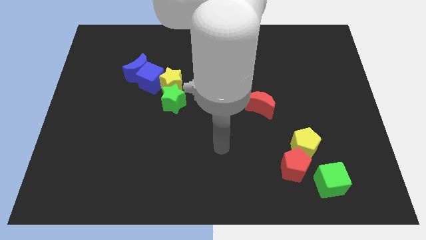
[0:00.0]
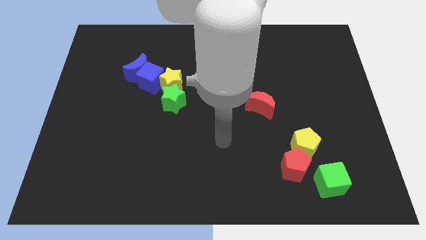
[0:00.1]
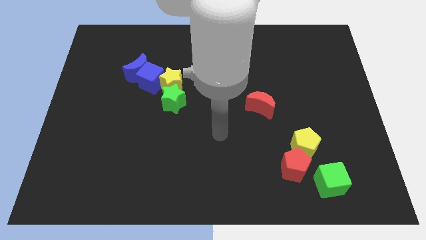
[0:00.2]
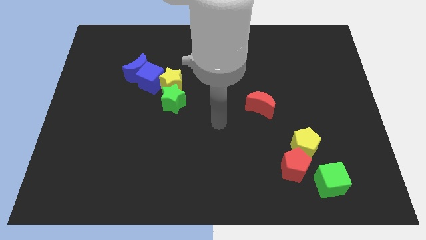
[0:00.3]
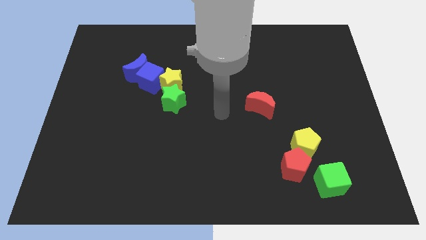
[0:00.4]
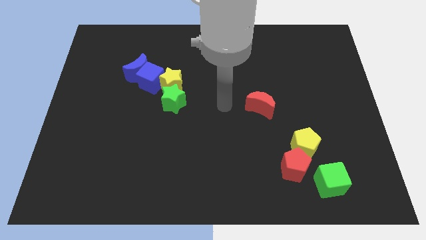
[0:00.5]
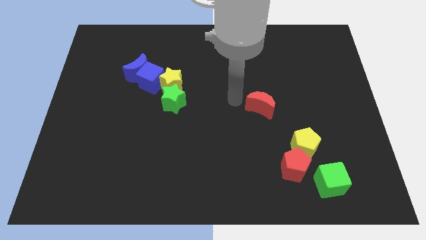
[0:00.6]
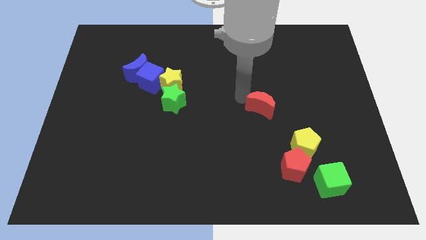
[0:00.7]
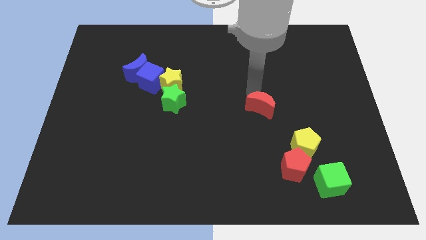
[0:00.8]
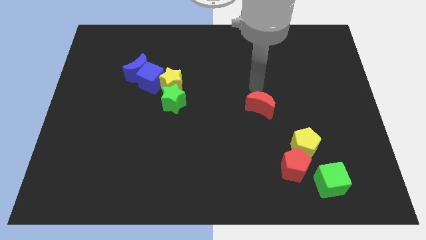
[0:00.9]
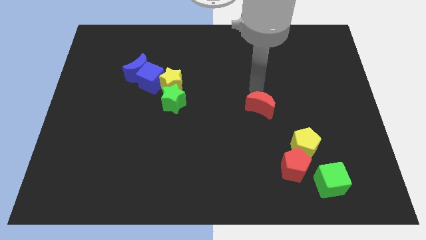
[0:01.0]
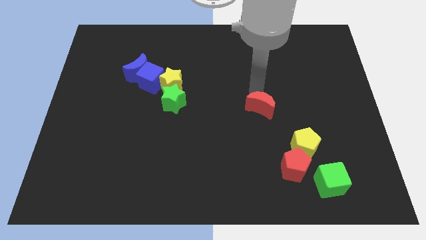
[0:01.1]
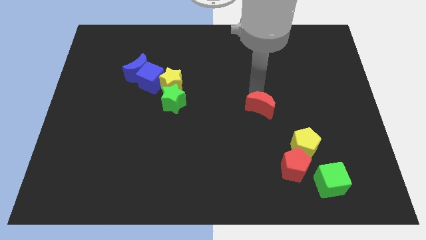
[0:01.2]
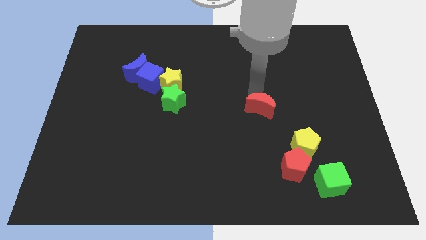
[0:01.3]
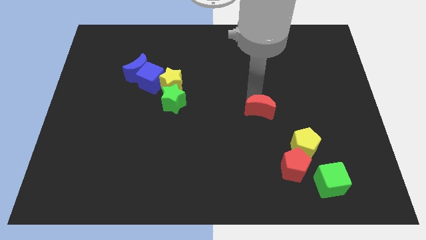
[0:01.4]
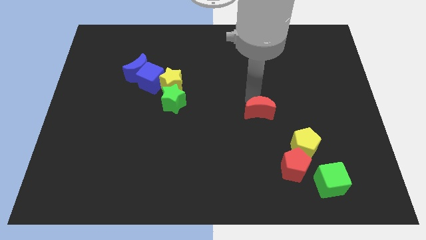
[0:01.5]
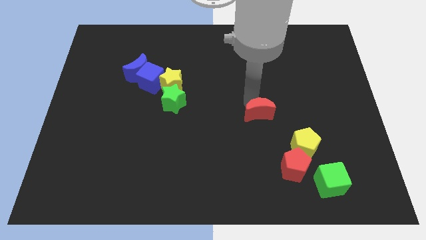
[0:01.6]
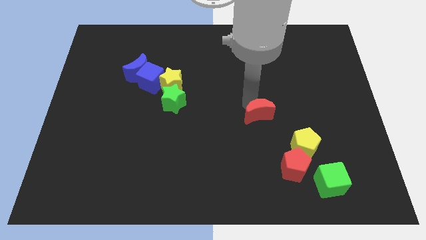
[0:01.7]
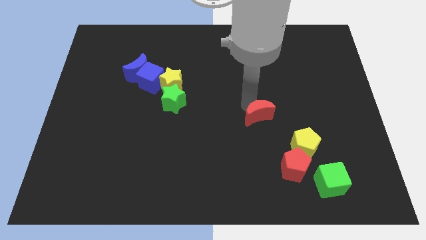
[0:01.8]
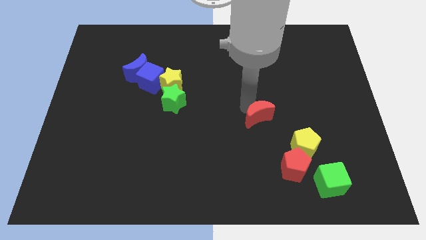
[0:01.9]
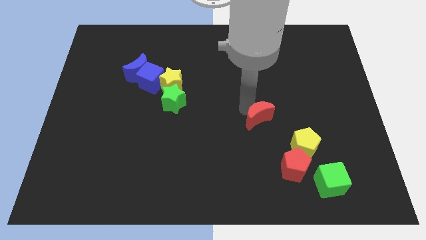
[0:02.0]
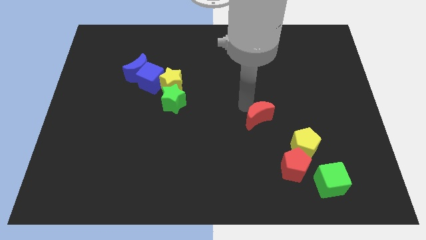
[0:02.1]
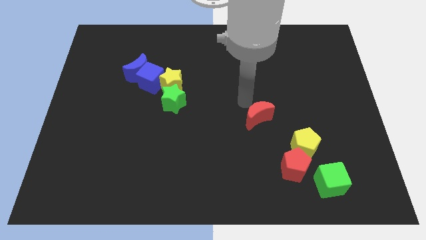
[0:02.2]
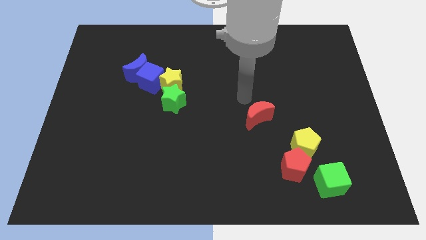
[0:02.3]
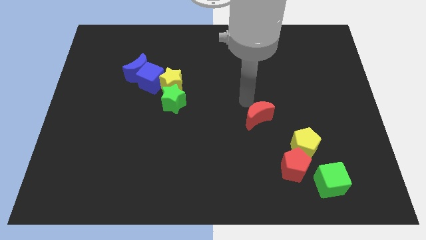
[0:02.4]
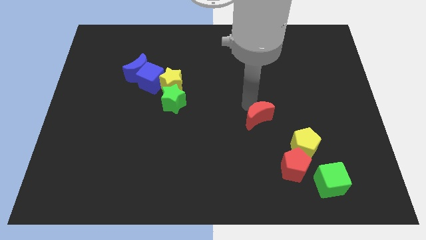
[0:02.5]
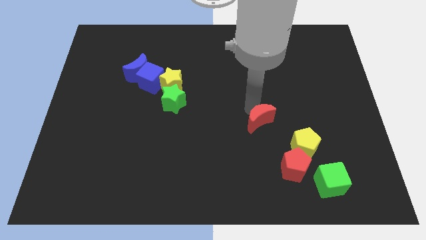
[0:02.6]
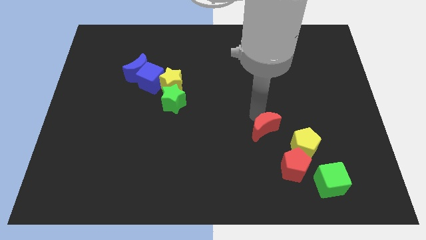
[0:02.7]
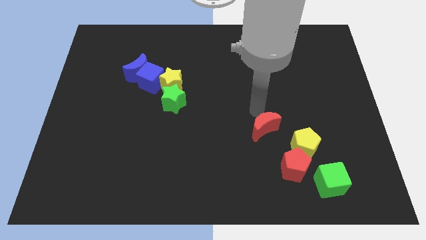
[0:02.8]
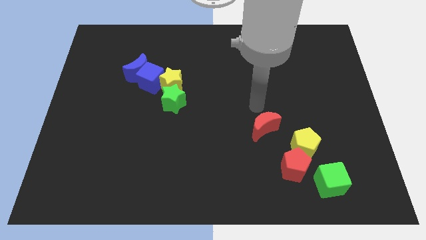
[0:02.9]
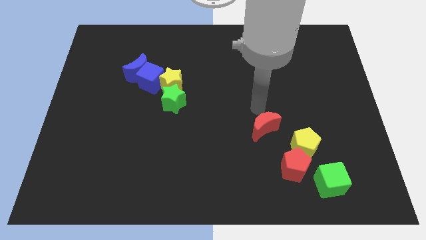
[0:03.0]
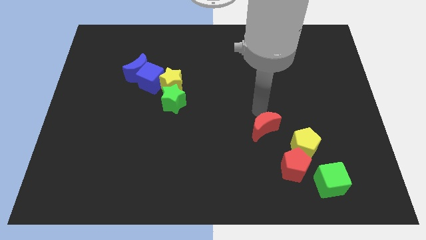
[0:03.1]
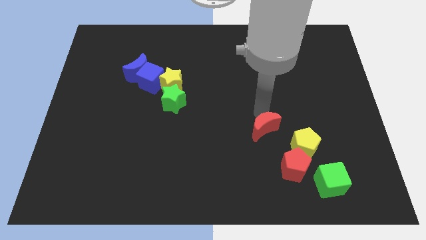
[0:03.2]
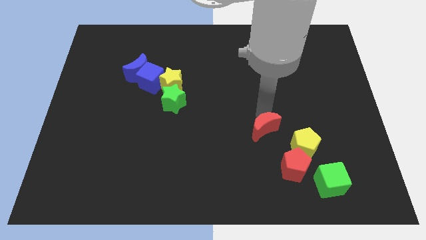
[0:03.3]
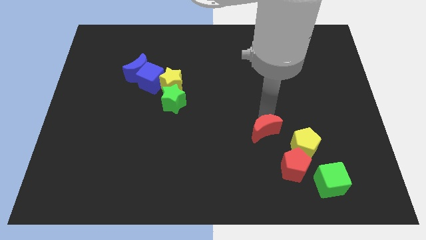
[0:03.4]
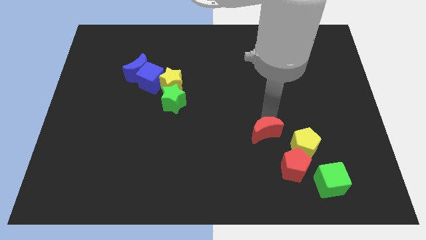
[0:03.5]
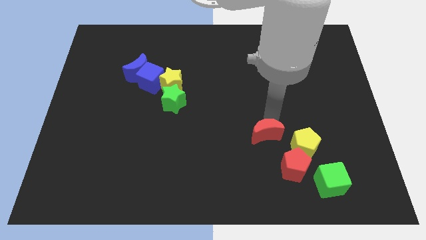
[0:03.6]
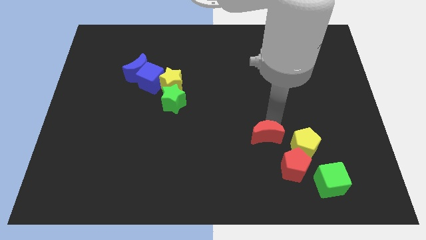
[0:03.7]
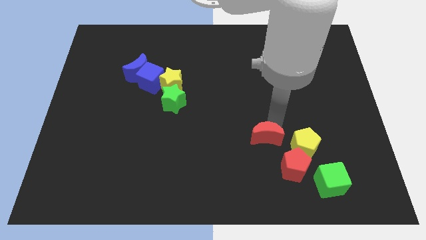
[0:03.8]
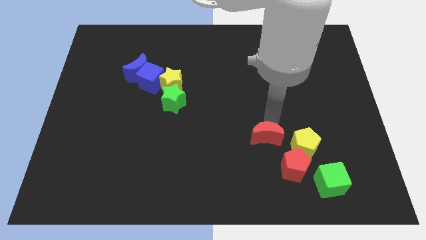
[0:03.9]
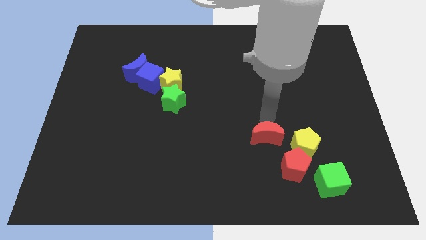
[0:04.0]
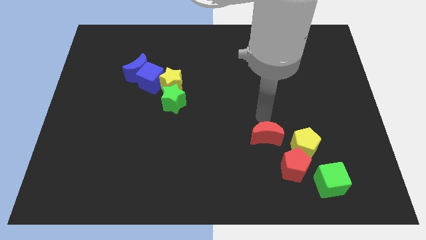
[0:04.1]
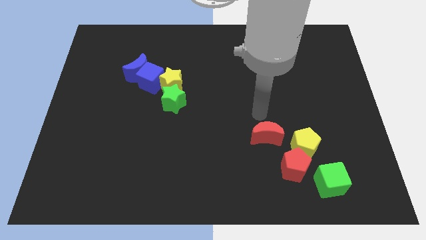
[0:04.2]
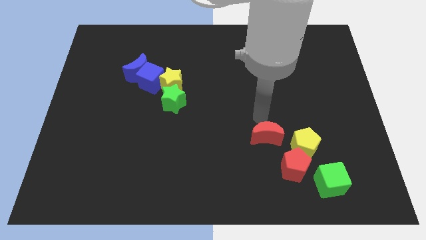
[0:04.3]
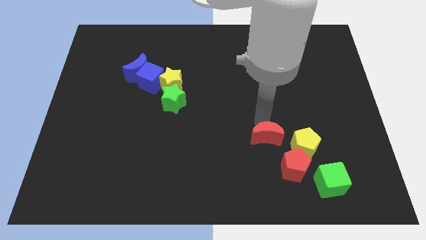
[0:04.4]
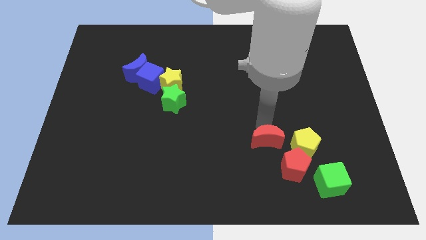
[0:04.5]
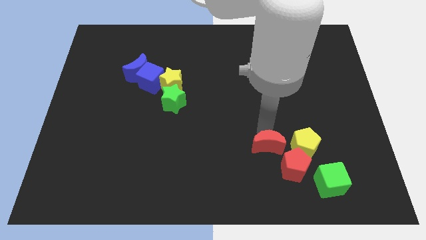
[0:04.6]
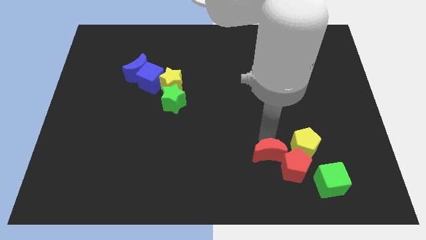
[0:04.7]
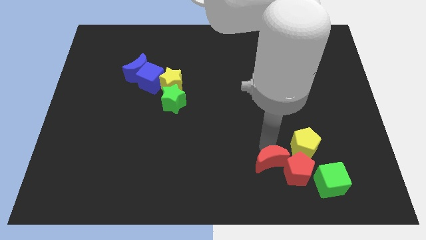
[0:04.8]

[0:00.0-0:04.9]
push the red moon left of the green cube

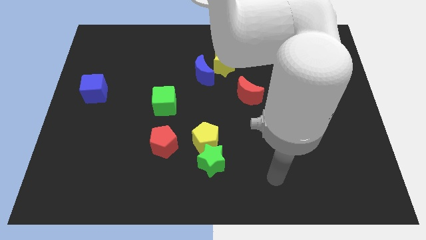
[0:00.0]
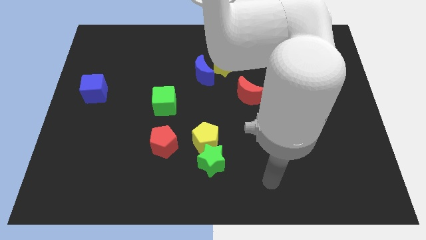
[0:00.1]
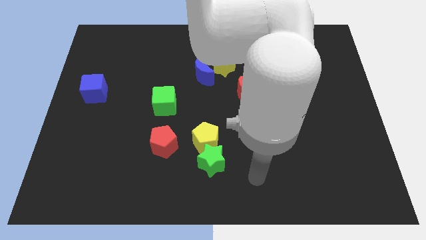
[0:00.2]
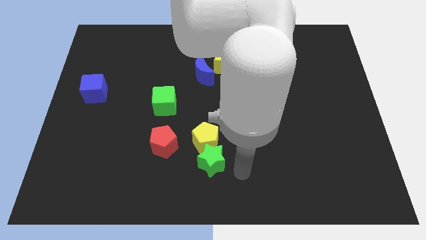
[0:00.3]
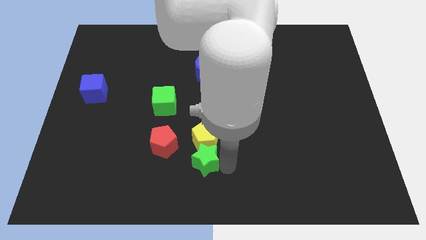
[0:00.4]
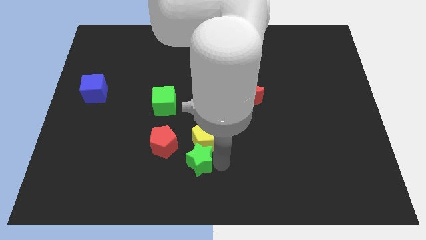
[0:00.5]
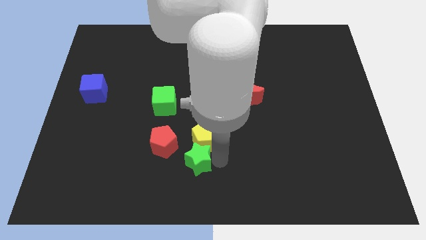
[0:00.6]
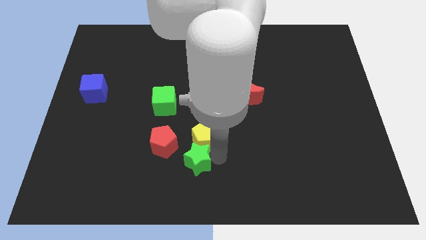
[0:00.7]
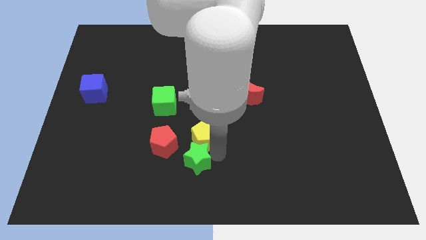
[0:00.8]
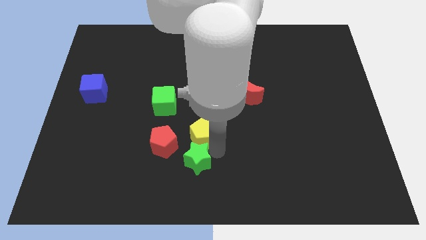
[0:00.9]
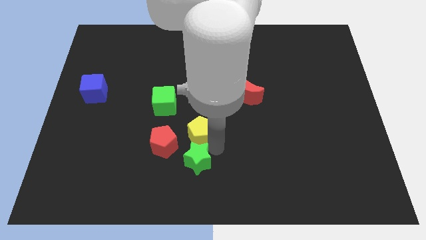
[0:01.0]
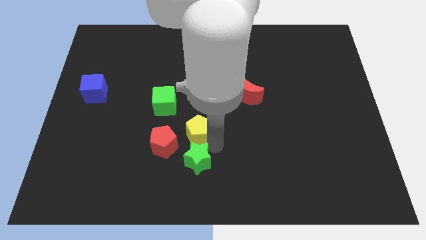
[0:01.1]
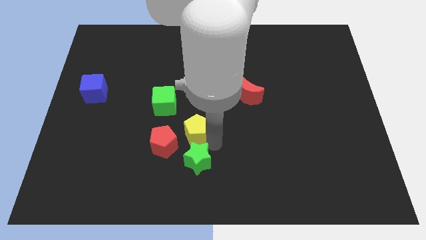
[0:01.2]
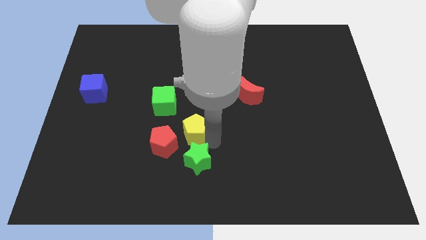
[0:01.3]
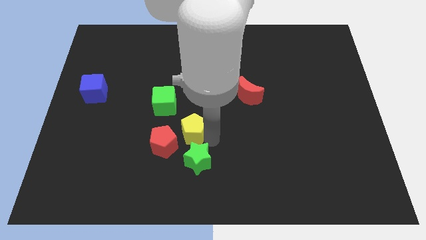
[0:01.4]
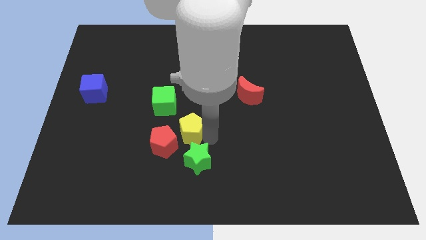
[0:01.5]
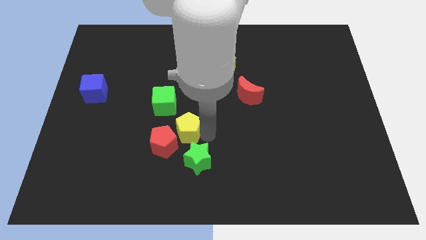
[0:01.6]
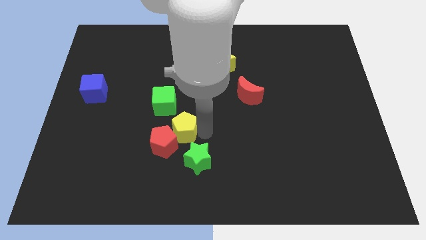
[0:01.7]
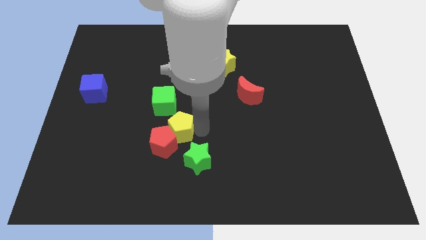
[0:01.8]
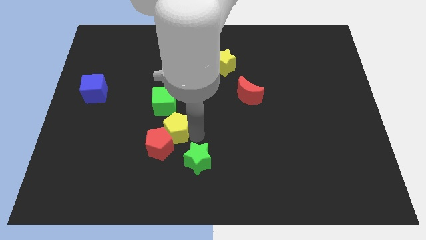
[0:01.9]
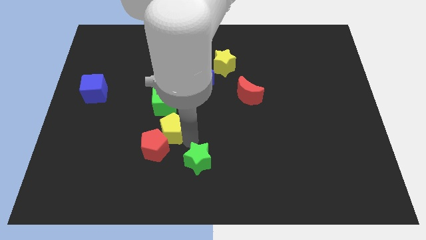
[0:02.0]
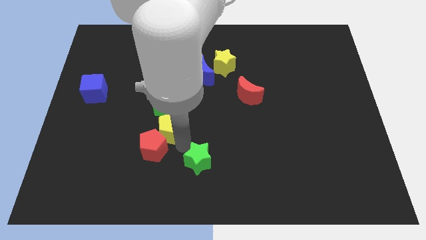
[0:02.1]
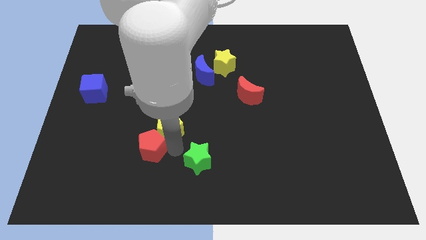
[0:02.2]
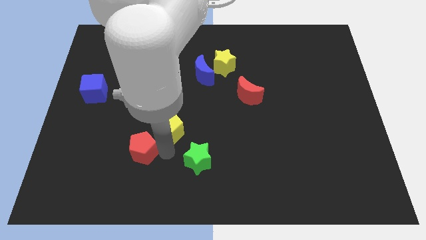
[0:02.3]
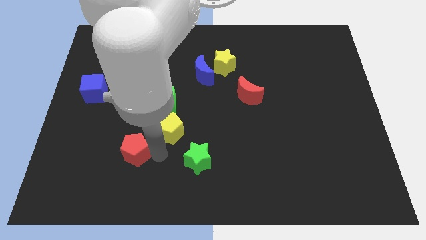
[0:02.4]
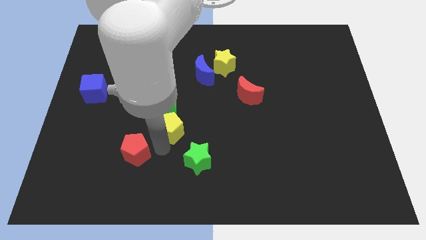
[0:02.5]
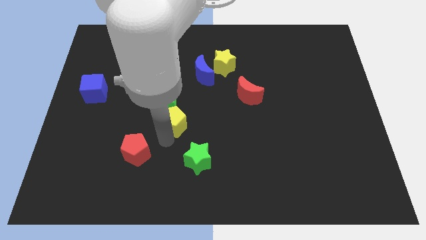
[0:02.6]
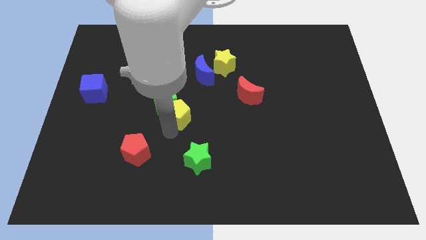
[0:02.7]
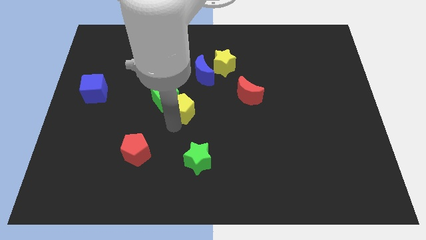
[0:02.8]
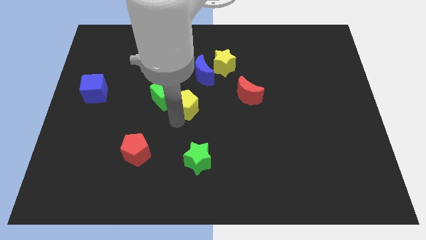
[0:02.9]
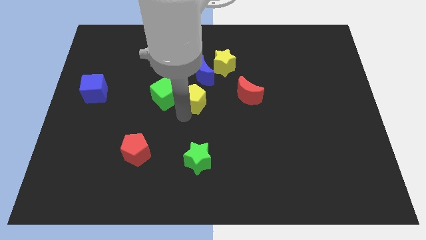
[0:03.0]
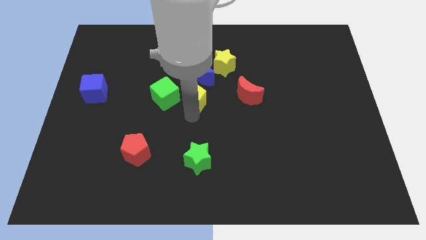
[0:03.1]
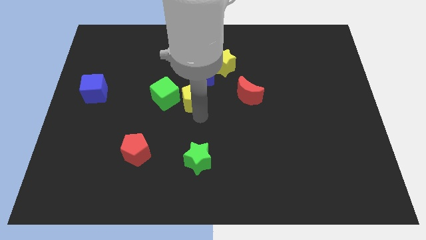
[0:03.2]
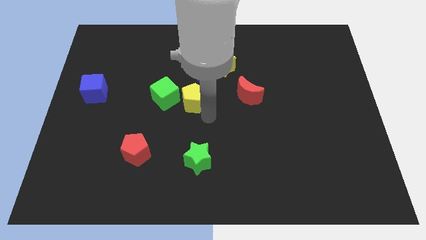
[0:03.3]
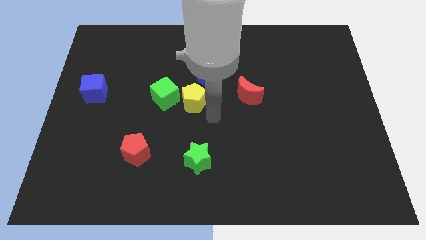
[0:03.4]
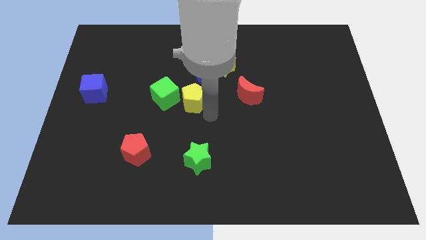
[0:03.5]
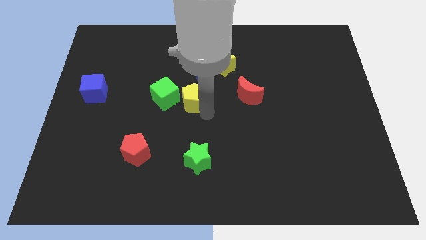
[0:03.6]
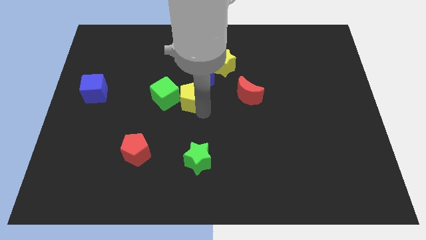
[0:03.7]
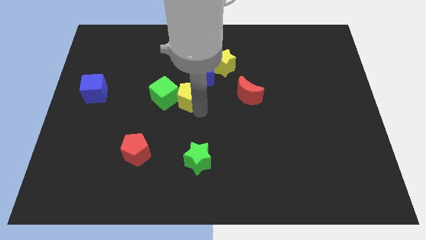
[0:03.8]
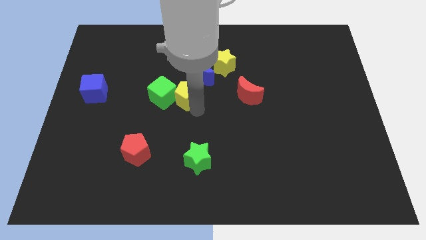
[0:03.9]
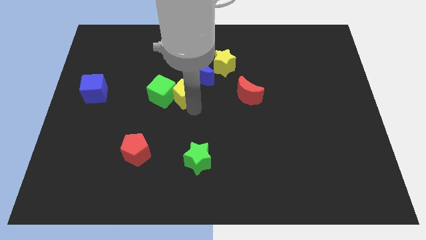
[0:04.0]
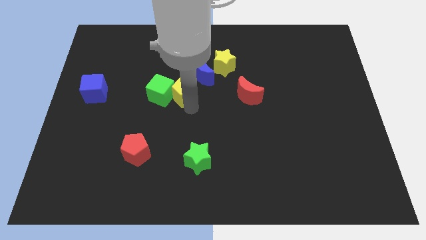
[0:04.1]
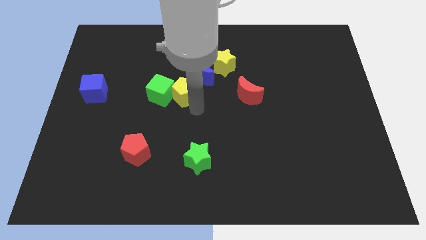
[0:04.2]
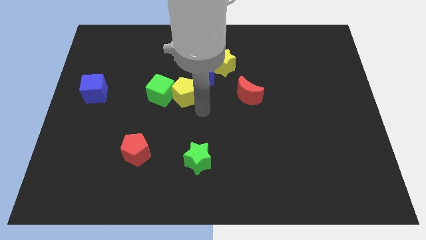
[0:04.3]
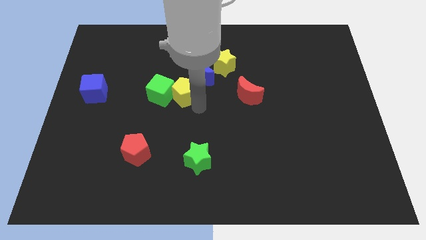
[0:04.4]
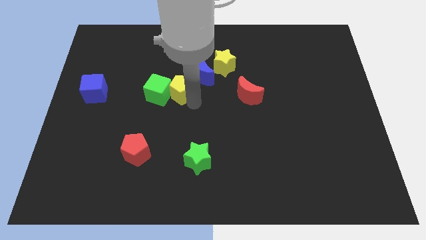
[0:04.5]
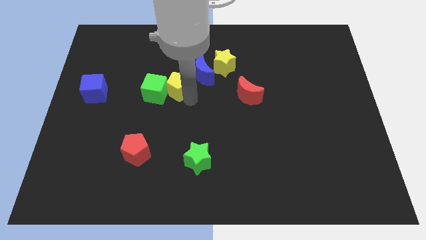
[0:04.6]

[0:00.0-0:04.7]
move the yellow pentagon just left of the blue moon
